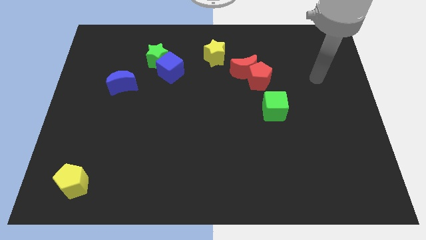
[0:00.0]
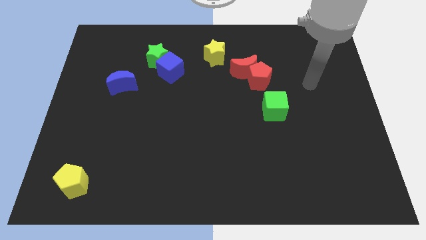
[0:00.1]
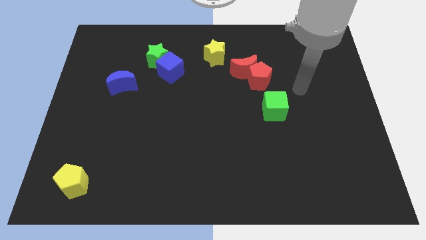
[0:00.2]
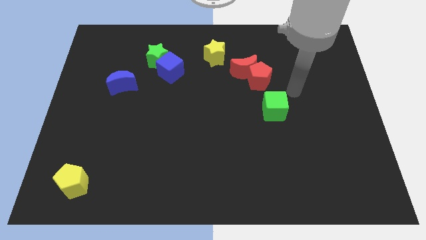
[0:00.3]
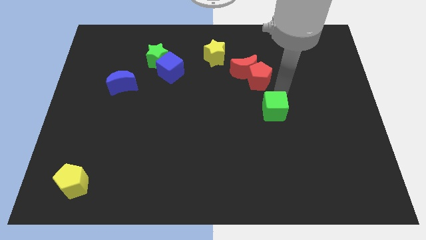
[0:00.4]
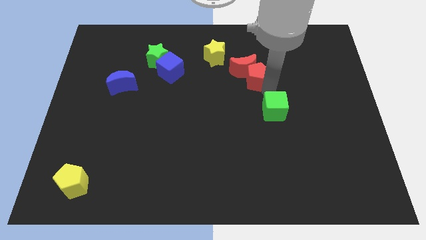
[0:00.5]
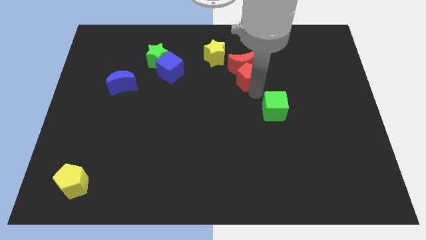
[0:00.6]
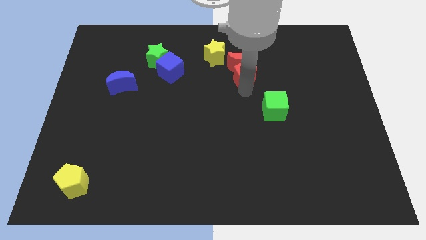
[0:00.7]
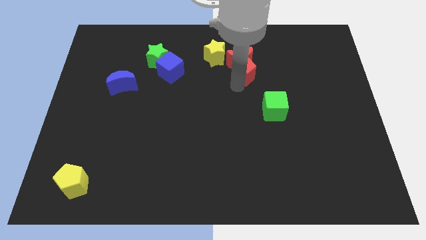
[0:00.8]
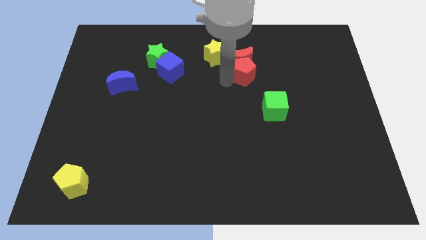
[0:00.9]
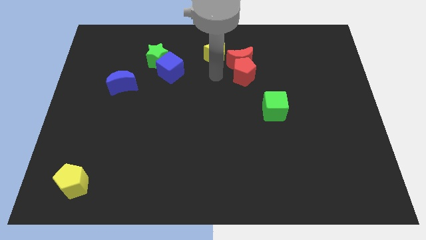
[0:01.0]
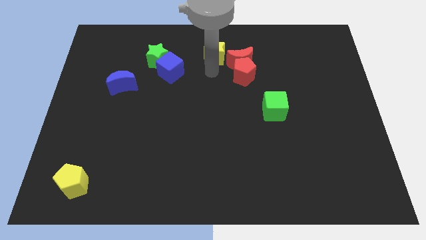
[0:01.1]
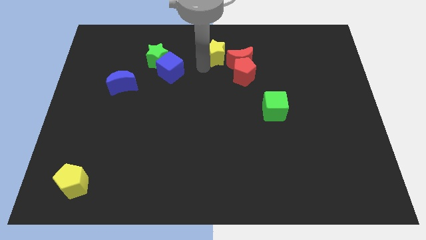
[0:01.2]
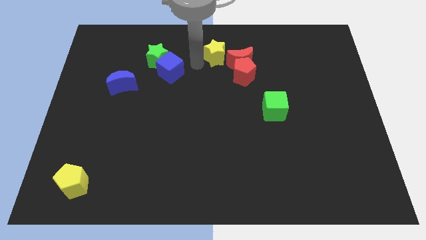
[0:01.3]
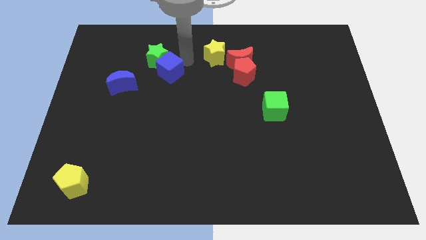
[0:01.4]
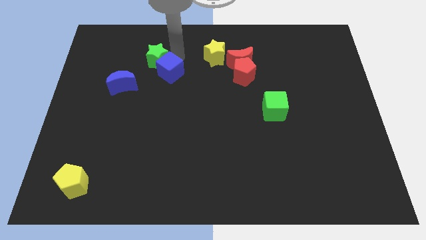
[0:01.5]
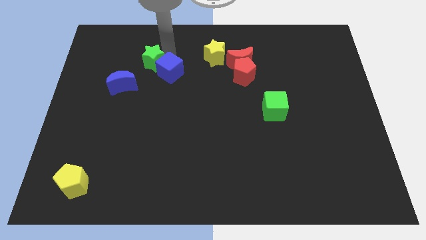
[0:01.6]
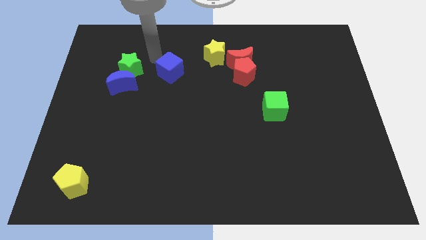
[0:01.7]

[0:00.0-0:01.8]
separate the blue cube from the green star

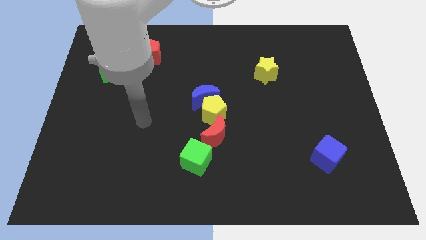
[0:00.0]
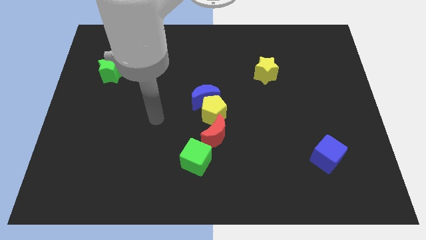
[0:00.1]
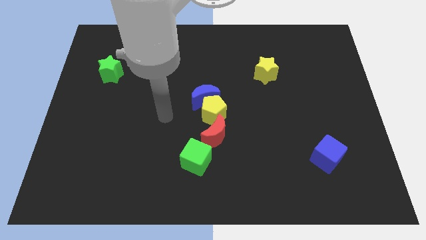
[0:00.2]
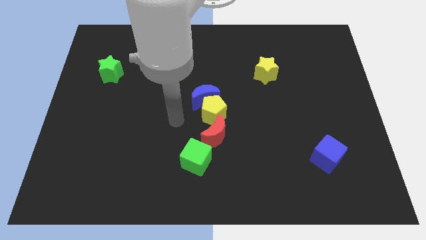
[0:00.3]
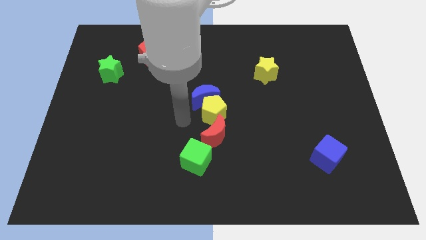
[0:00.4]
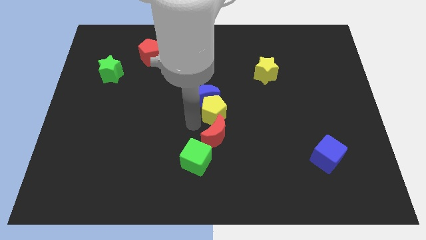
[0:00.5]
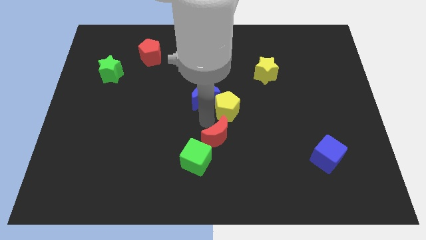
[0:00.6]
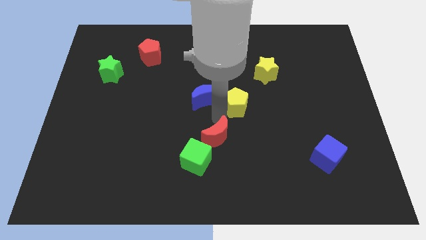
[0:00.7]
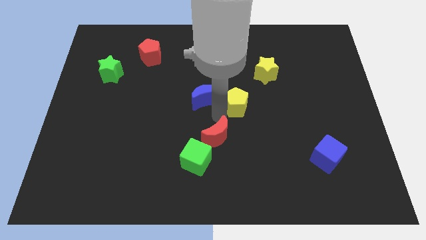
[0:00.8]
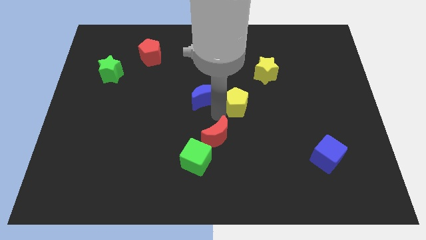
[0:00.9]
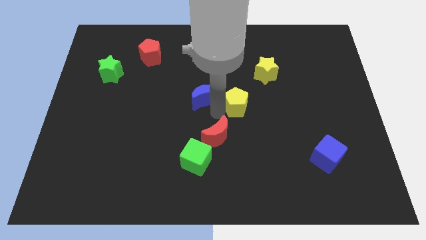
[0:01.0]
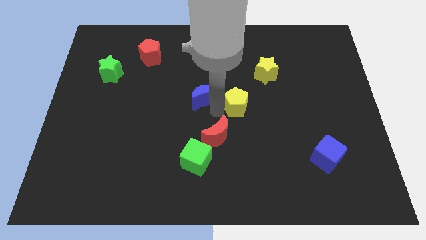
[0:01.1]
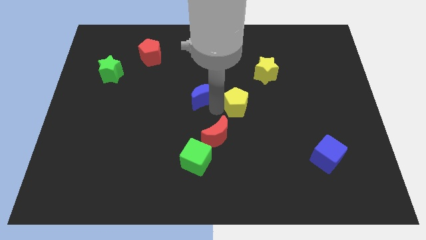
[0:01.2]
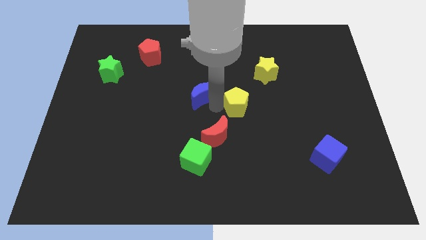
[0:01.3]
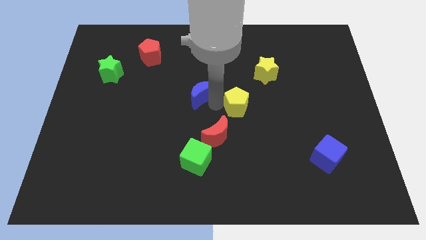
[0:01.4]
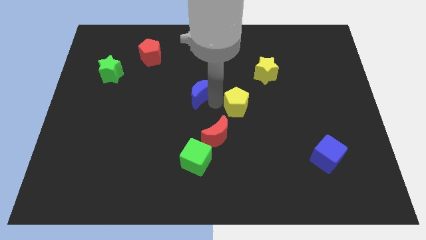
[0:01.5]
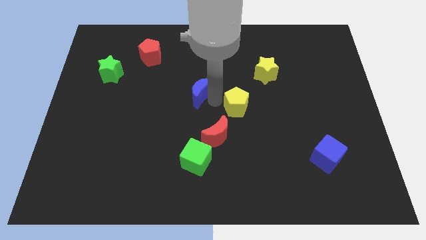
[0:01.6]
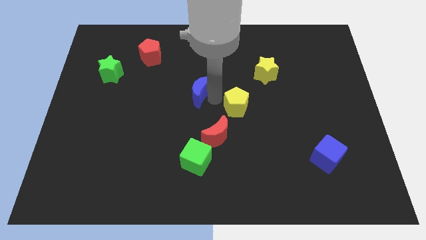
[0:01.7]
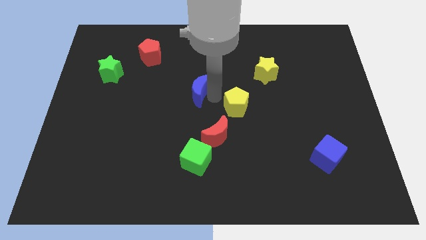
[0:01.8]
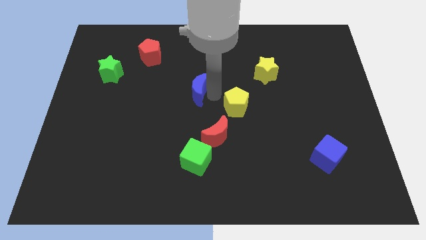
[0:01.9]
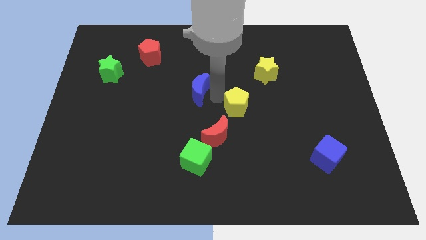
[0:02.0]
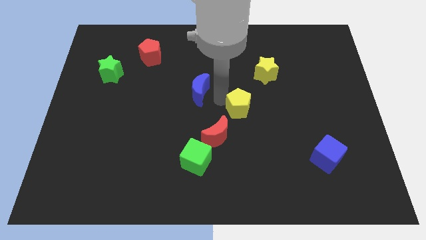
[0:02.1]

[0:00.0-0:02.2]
pull the blue moon apart from the yellow pentagon

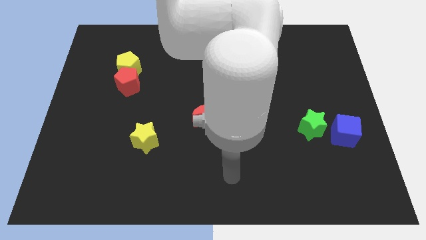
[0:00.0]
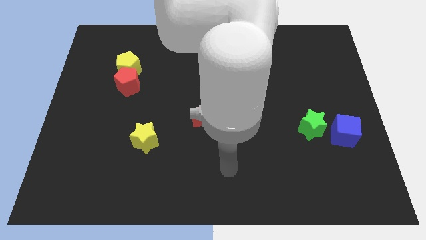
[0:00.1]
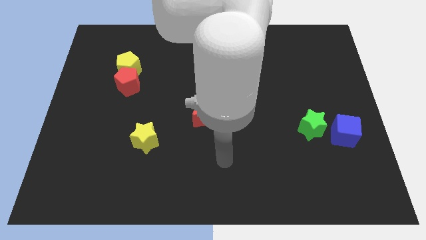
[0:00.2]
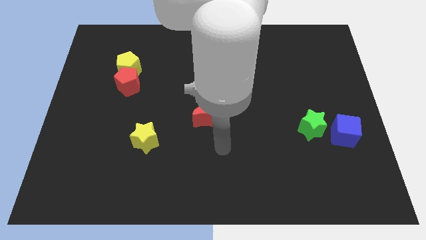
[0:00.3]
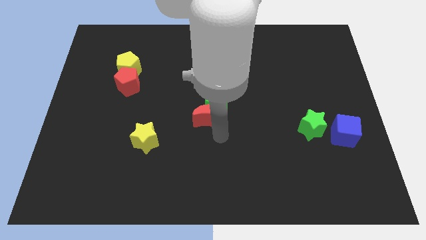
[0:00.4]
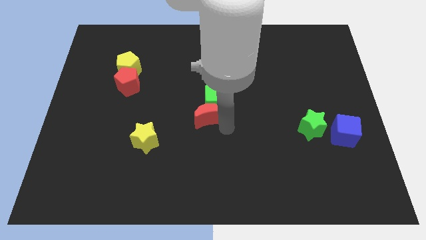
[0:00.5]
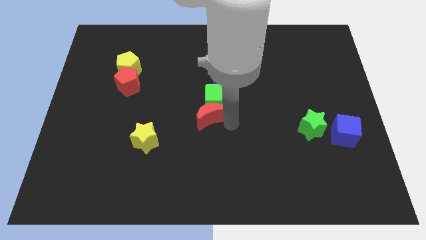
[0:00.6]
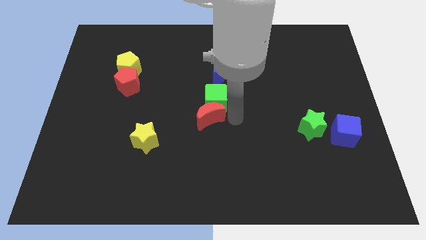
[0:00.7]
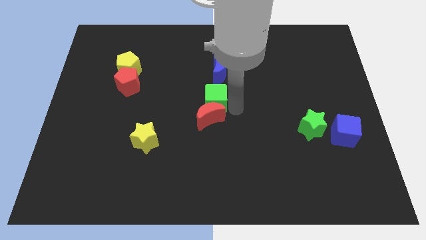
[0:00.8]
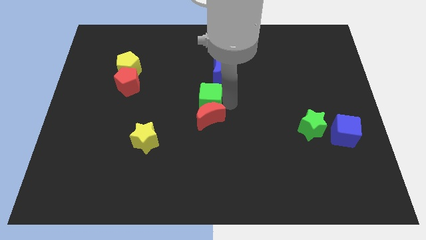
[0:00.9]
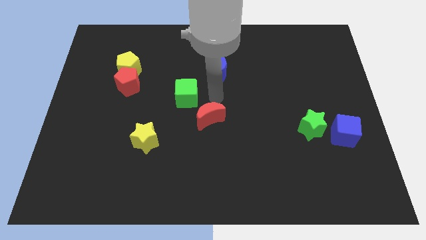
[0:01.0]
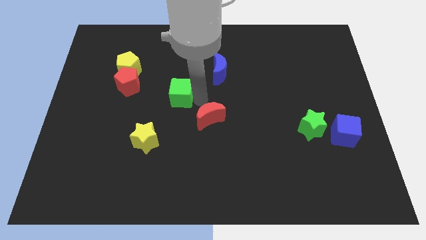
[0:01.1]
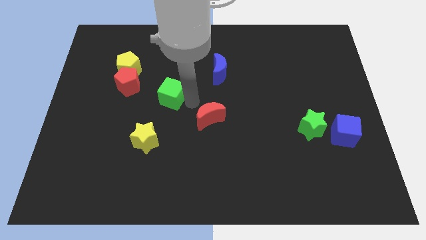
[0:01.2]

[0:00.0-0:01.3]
pull the red moon apart from the green cube

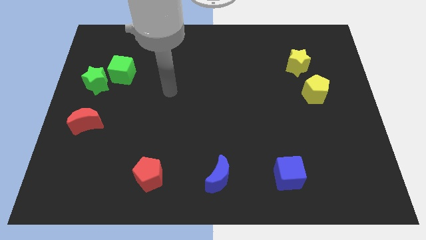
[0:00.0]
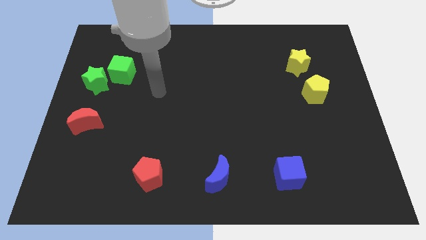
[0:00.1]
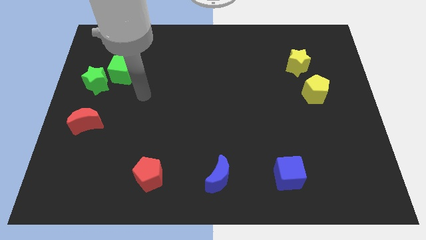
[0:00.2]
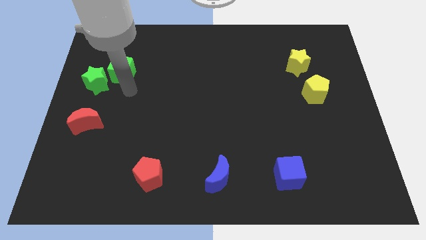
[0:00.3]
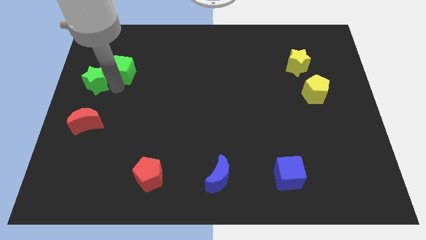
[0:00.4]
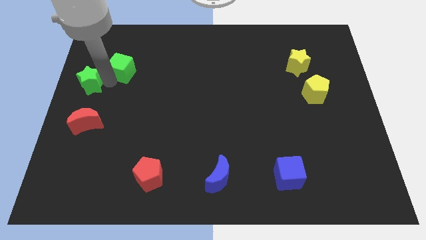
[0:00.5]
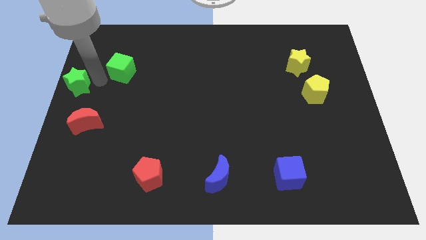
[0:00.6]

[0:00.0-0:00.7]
separate the green cube from the green star

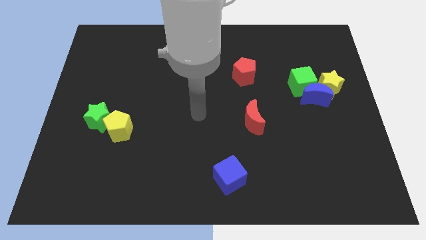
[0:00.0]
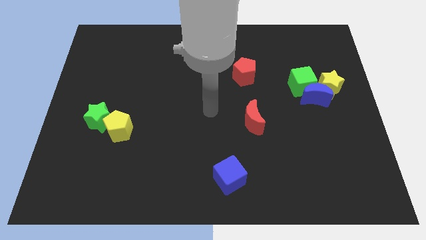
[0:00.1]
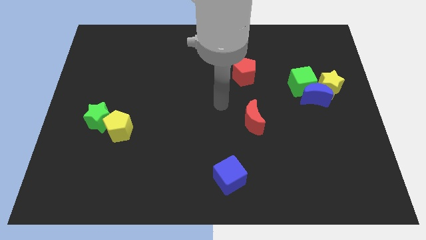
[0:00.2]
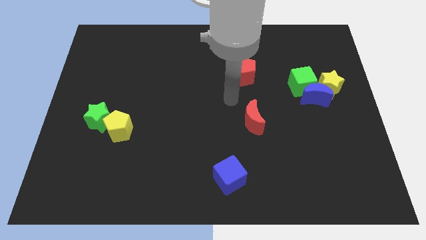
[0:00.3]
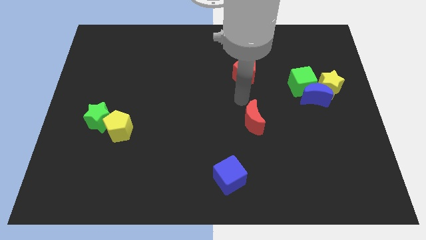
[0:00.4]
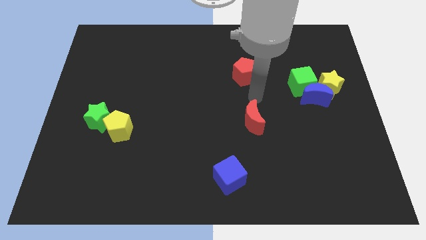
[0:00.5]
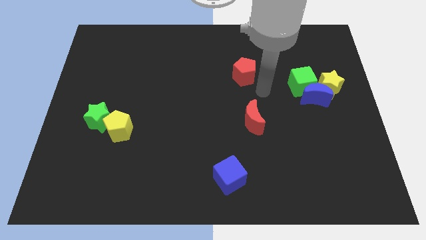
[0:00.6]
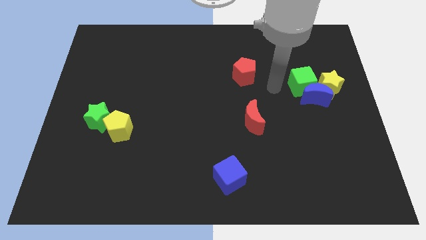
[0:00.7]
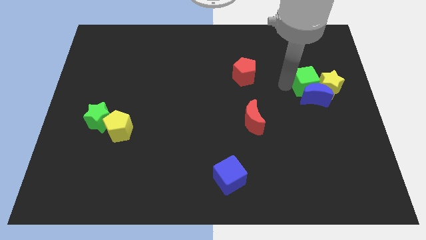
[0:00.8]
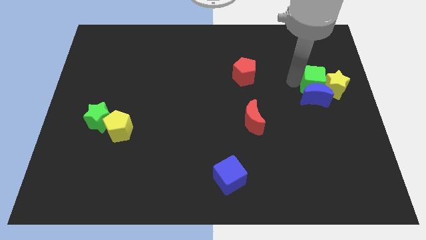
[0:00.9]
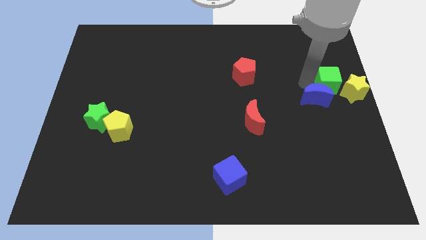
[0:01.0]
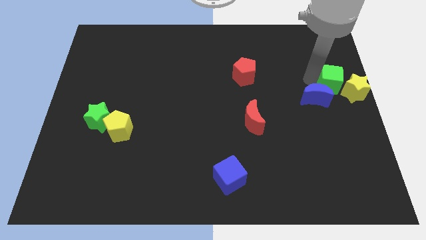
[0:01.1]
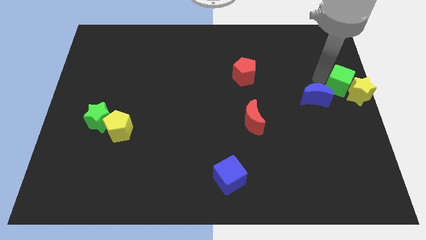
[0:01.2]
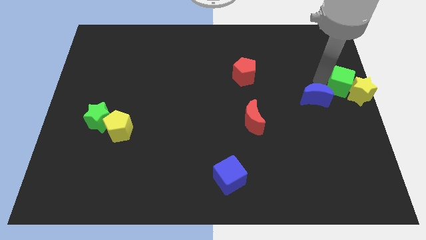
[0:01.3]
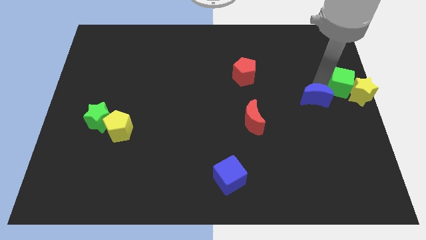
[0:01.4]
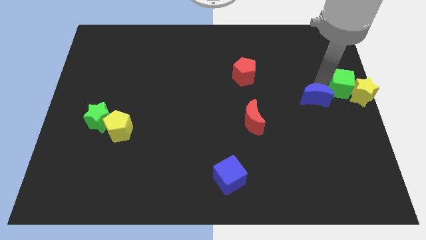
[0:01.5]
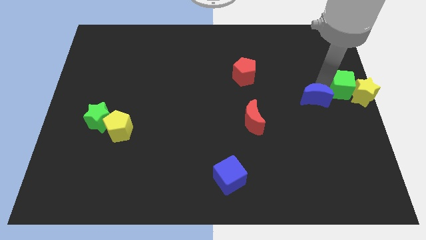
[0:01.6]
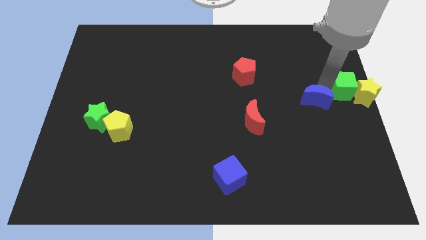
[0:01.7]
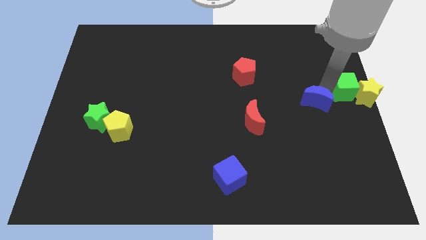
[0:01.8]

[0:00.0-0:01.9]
pull the blue moon apart from the yellow star and green cube

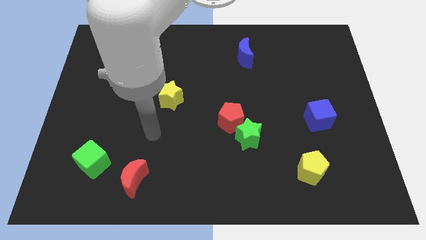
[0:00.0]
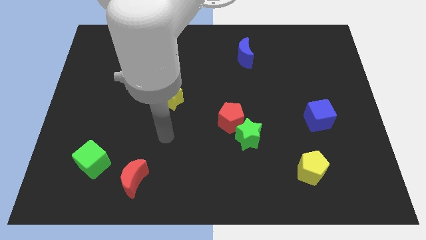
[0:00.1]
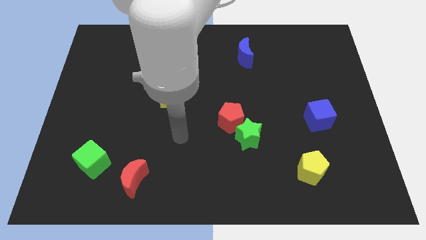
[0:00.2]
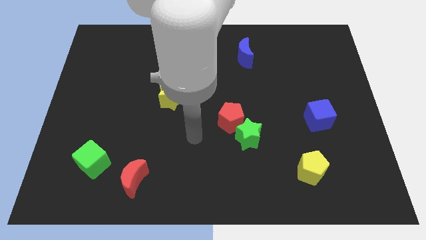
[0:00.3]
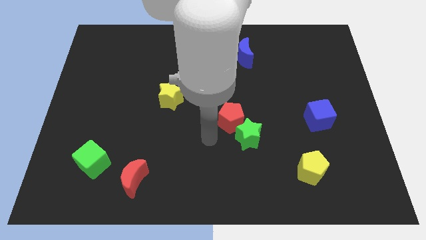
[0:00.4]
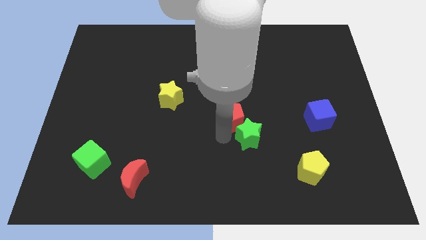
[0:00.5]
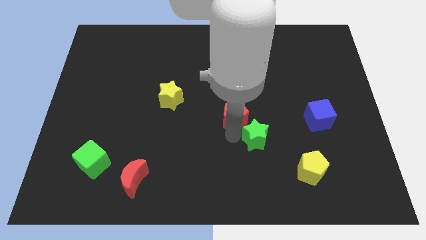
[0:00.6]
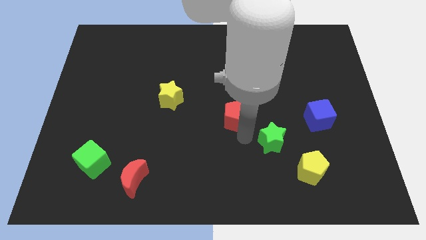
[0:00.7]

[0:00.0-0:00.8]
pull the red pentagon apart from the green star

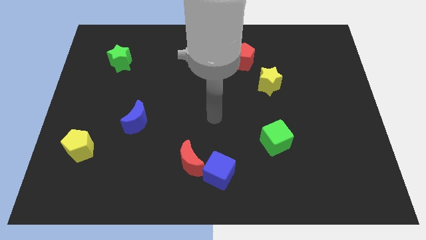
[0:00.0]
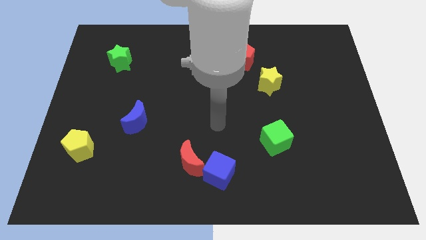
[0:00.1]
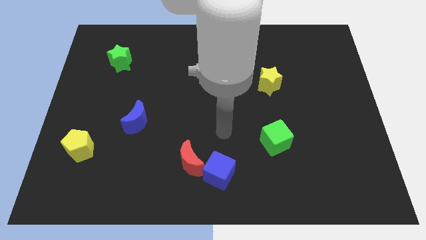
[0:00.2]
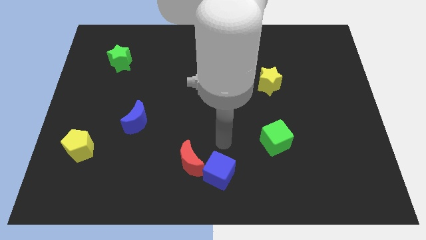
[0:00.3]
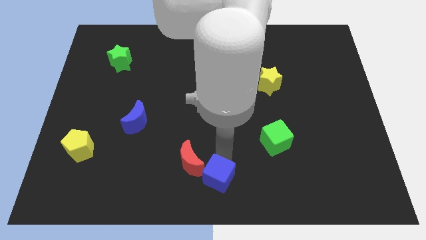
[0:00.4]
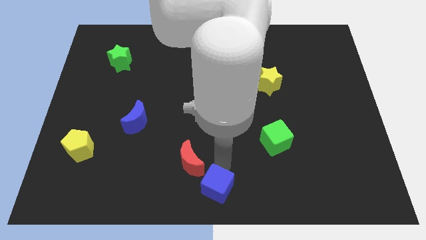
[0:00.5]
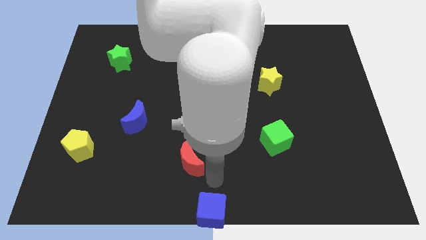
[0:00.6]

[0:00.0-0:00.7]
move the red moon away from the blue cube
